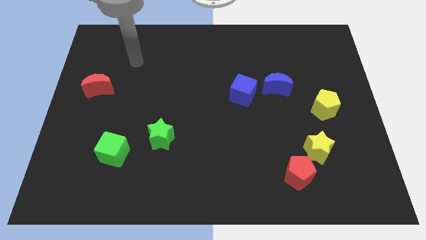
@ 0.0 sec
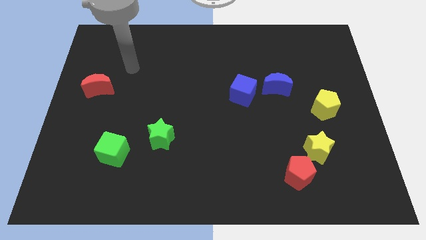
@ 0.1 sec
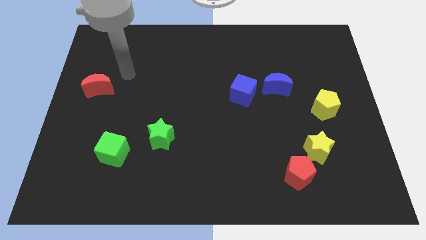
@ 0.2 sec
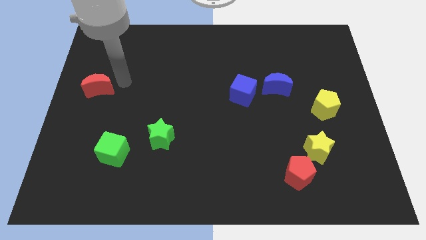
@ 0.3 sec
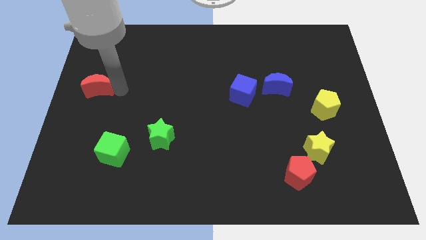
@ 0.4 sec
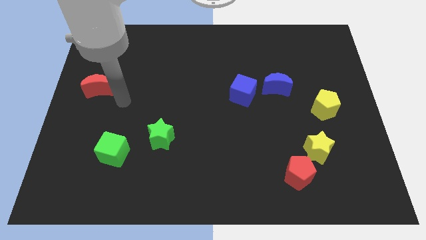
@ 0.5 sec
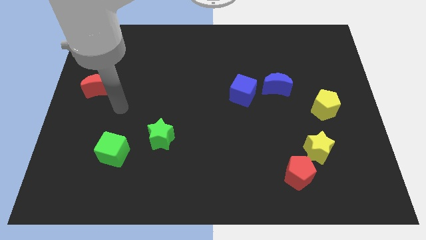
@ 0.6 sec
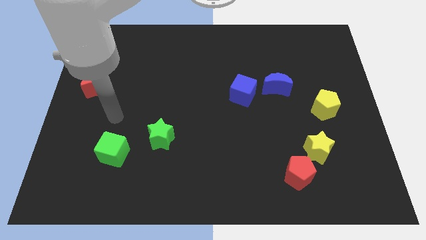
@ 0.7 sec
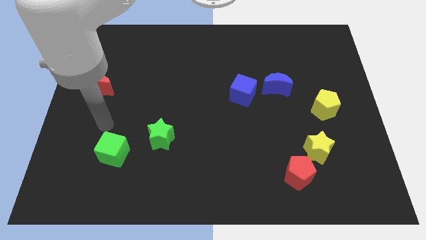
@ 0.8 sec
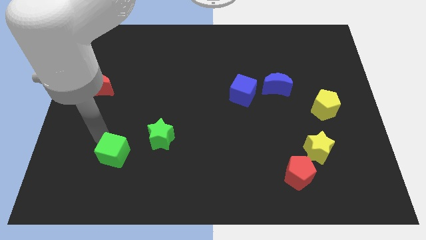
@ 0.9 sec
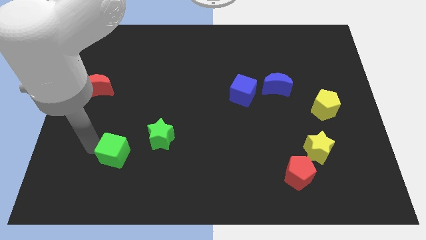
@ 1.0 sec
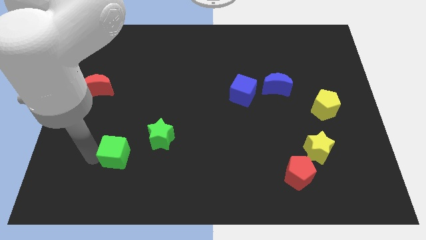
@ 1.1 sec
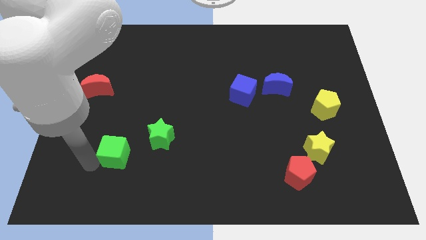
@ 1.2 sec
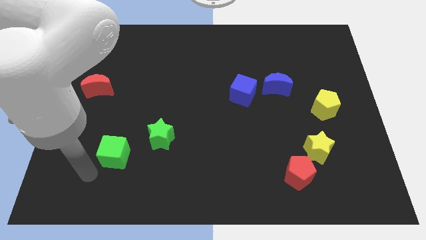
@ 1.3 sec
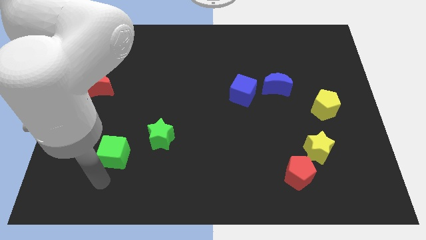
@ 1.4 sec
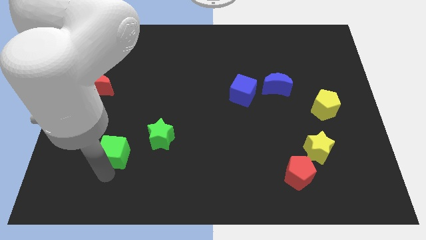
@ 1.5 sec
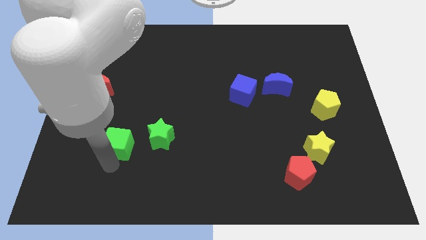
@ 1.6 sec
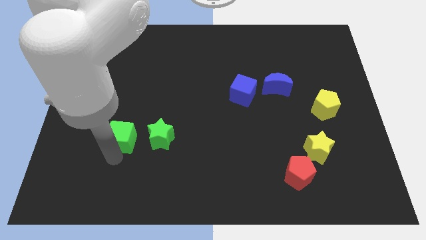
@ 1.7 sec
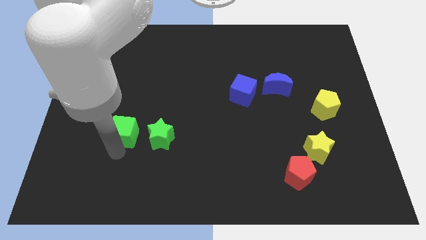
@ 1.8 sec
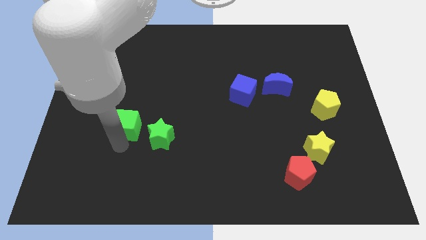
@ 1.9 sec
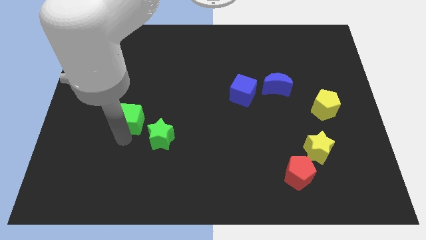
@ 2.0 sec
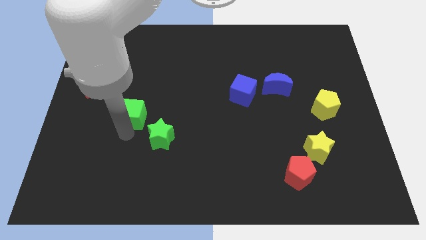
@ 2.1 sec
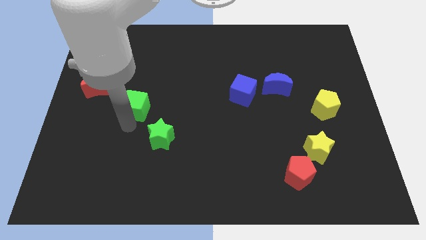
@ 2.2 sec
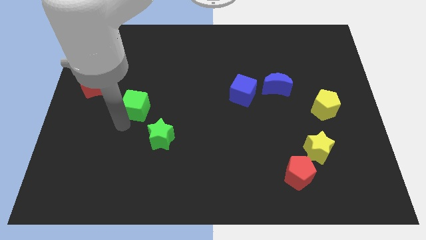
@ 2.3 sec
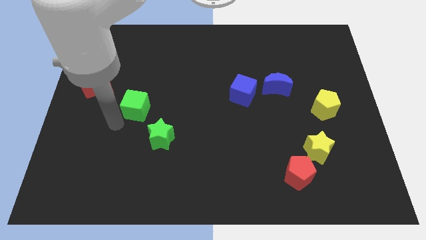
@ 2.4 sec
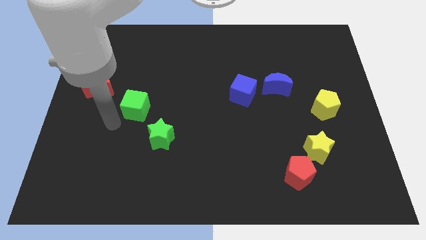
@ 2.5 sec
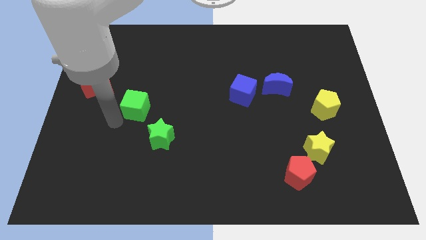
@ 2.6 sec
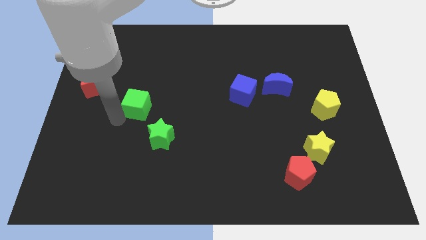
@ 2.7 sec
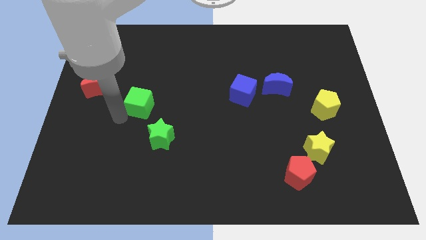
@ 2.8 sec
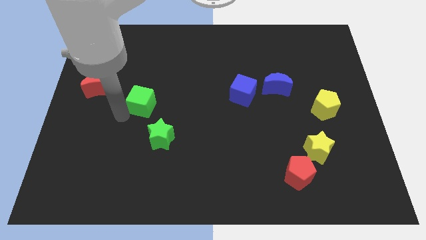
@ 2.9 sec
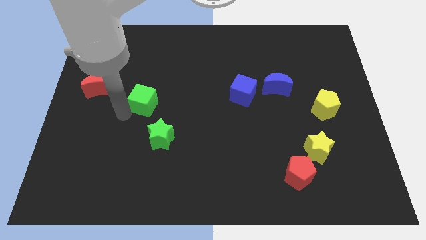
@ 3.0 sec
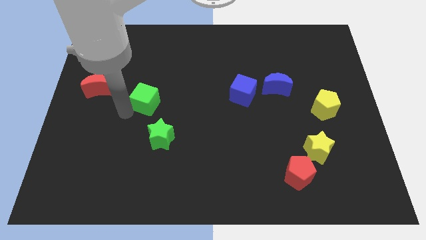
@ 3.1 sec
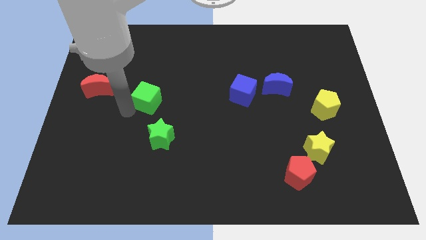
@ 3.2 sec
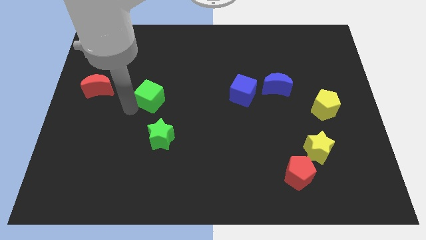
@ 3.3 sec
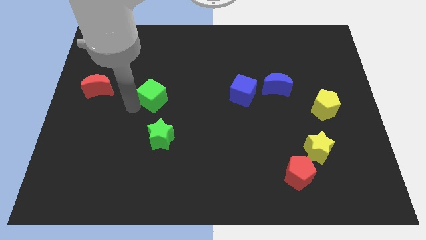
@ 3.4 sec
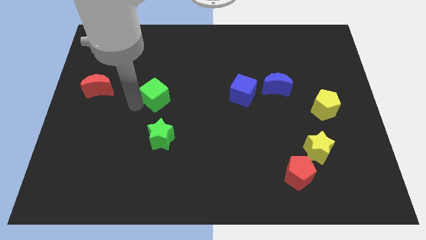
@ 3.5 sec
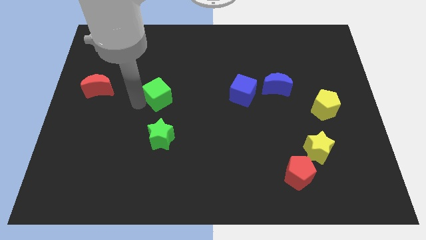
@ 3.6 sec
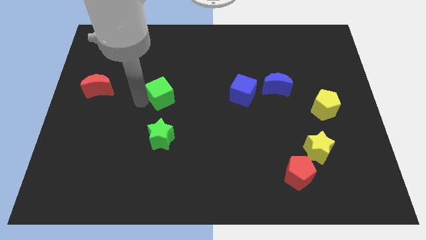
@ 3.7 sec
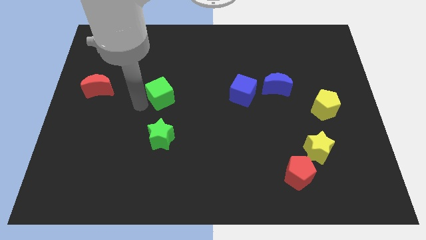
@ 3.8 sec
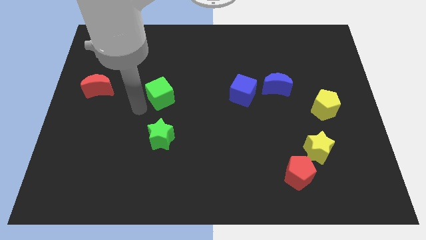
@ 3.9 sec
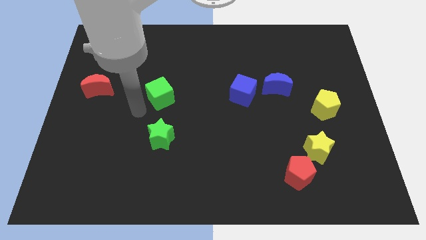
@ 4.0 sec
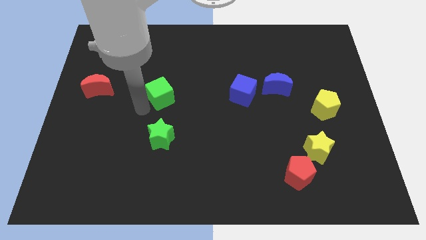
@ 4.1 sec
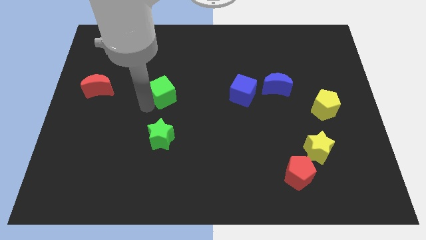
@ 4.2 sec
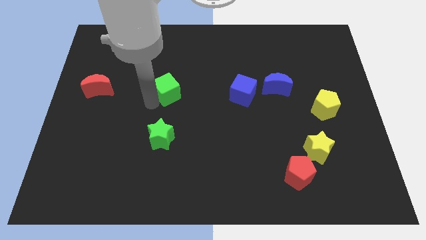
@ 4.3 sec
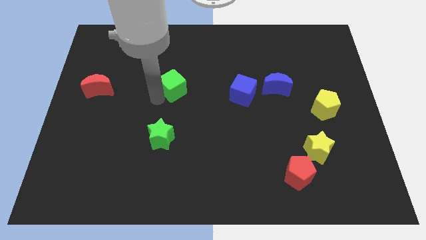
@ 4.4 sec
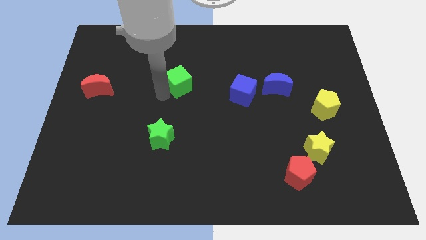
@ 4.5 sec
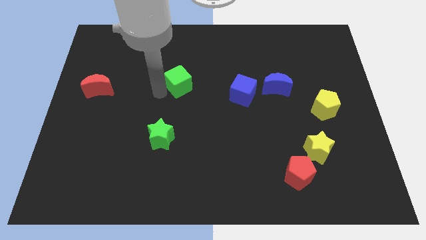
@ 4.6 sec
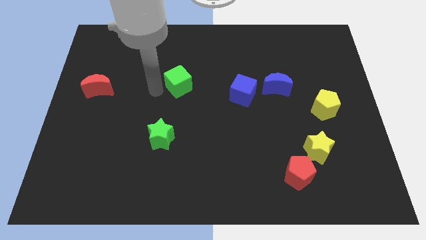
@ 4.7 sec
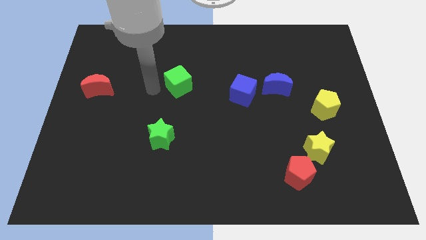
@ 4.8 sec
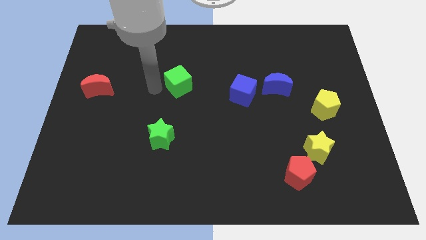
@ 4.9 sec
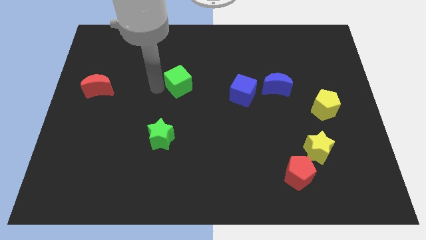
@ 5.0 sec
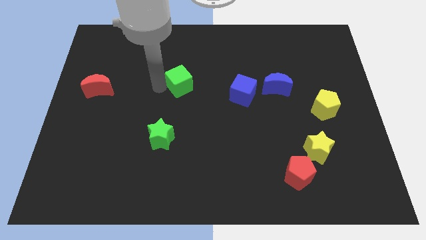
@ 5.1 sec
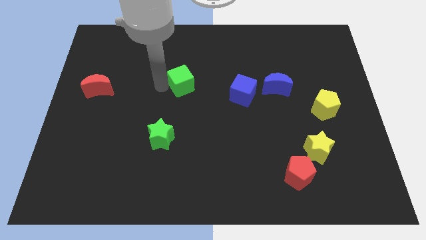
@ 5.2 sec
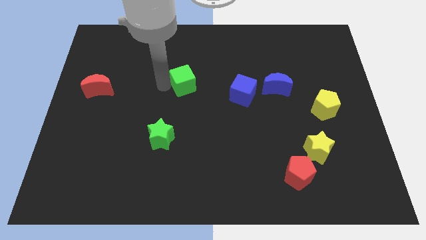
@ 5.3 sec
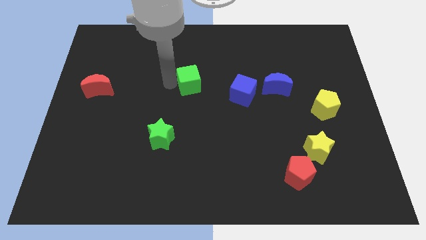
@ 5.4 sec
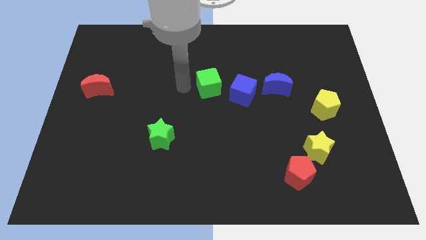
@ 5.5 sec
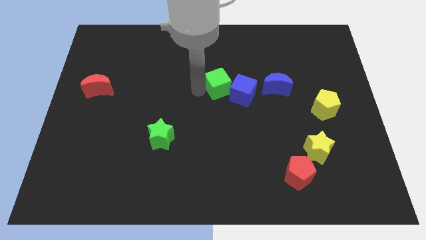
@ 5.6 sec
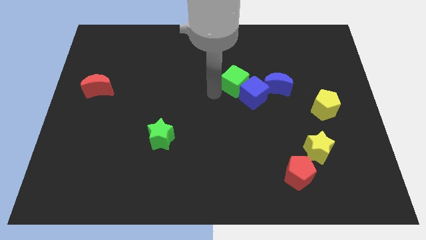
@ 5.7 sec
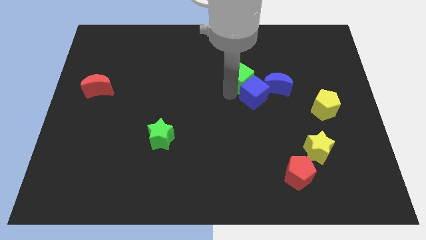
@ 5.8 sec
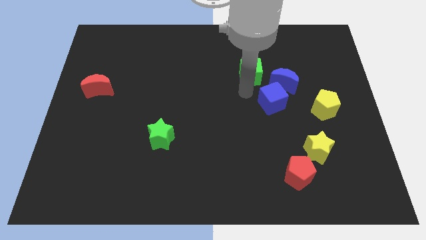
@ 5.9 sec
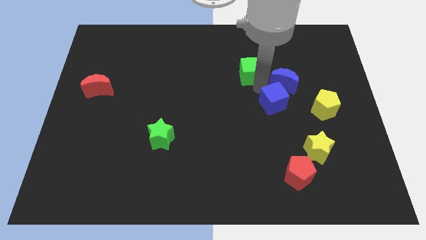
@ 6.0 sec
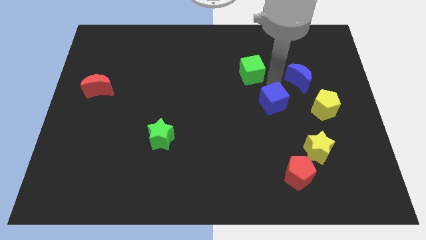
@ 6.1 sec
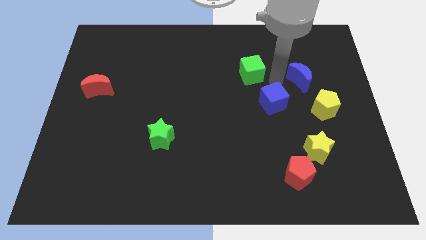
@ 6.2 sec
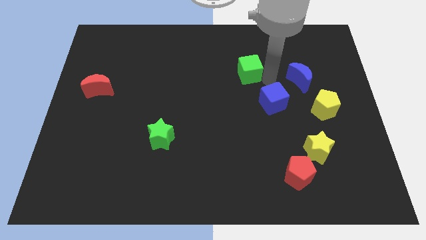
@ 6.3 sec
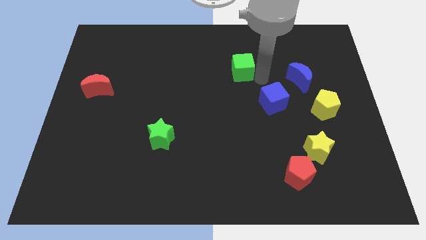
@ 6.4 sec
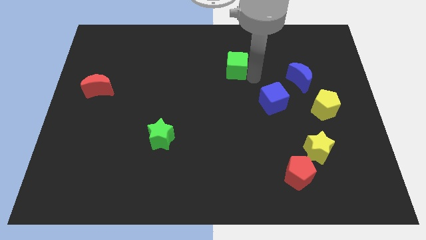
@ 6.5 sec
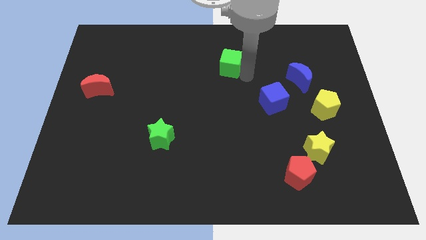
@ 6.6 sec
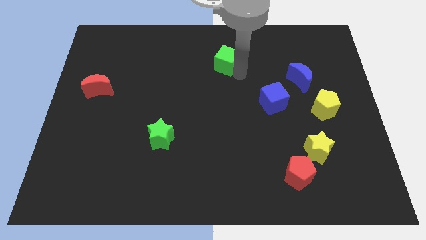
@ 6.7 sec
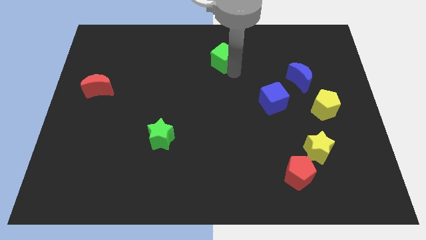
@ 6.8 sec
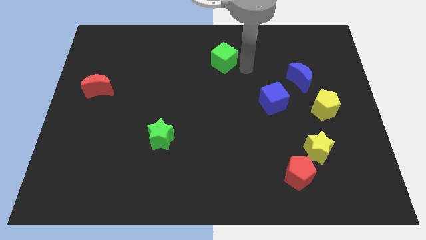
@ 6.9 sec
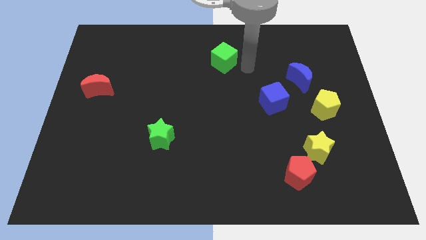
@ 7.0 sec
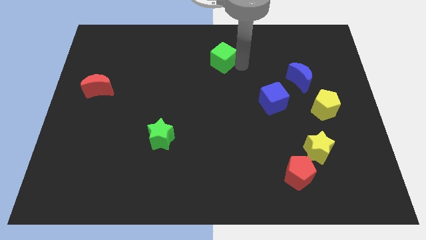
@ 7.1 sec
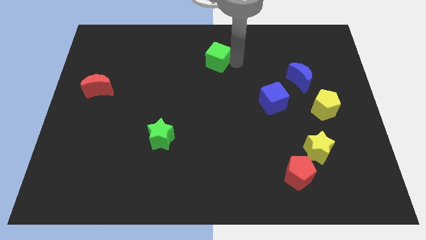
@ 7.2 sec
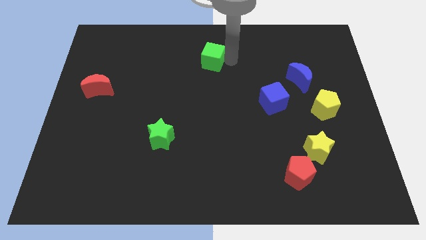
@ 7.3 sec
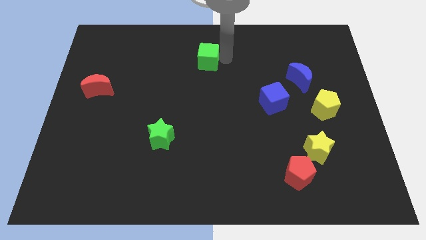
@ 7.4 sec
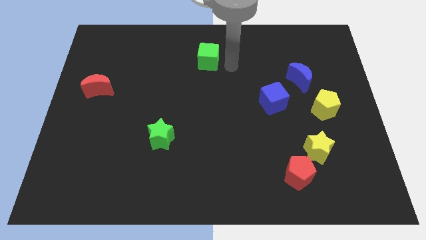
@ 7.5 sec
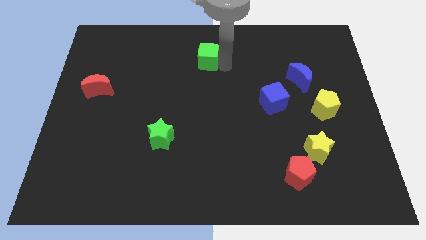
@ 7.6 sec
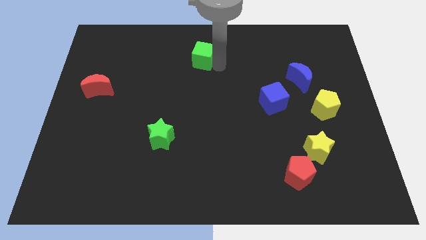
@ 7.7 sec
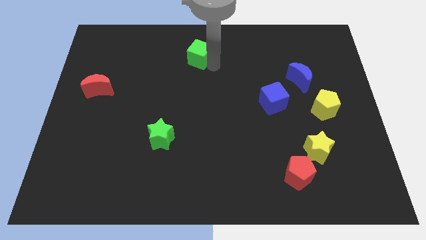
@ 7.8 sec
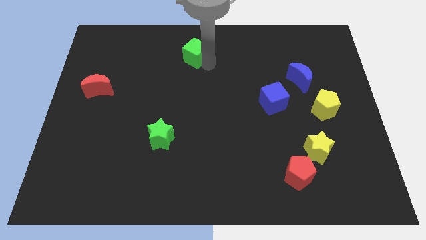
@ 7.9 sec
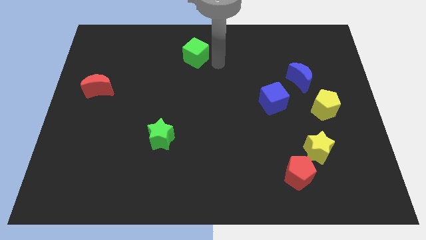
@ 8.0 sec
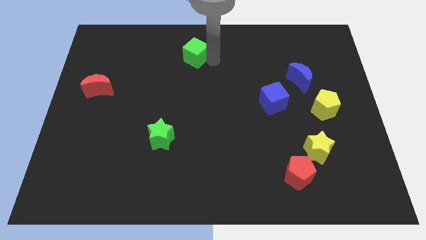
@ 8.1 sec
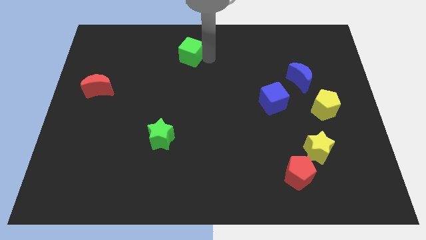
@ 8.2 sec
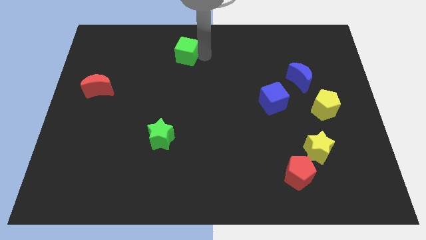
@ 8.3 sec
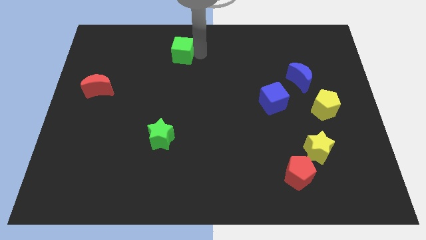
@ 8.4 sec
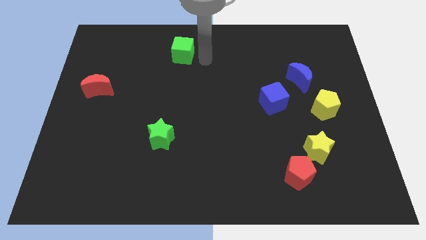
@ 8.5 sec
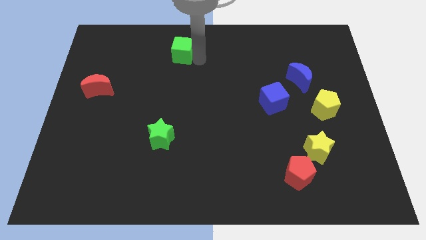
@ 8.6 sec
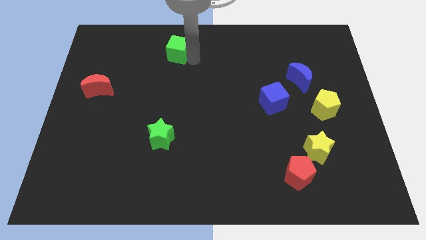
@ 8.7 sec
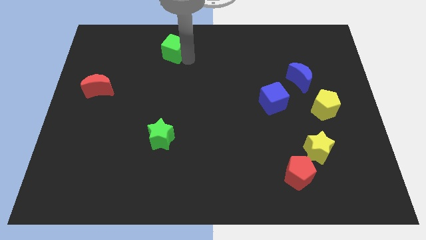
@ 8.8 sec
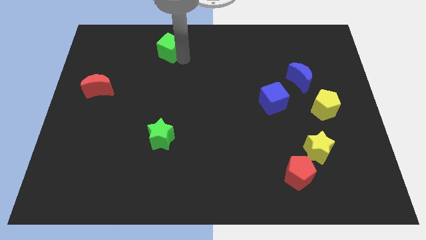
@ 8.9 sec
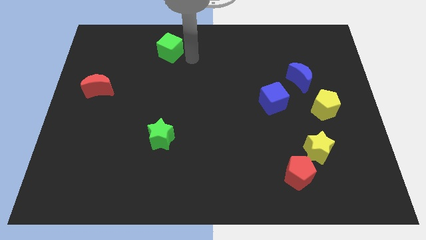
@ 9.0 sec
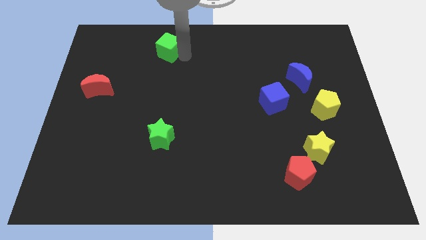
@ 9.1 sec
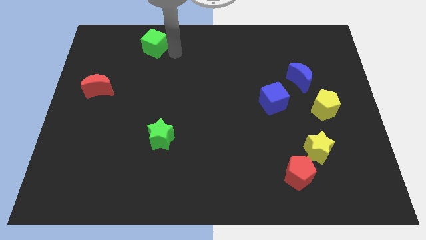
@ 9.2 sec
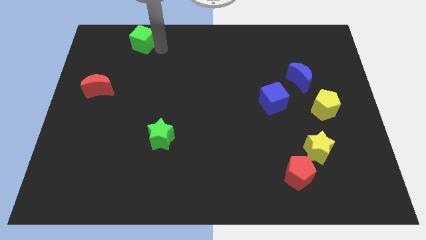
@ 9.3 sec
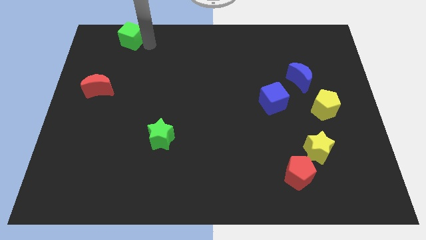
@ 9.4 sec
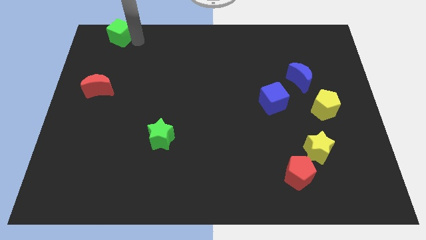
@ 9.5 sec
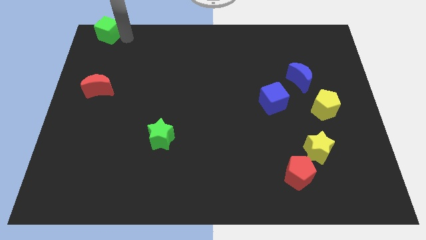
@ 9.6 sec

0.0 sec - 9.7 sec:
move the green cube to the top left of the board
